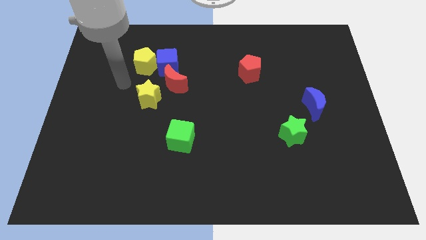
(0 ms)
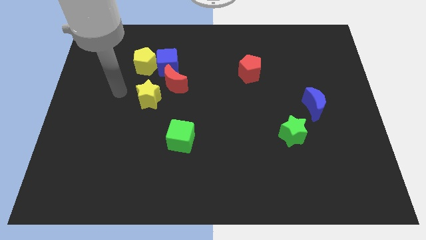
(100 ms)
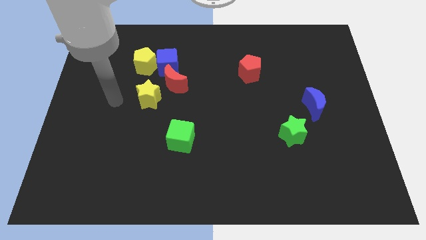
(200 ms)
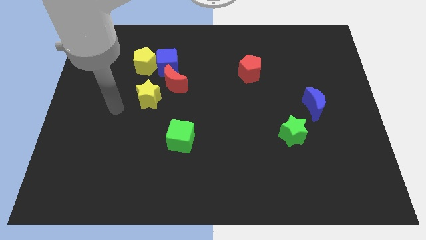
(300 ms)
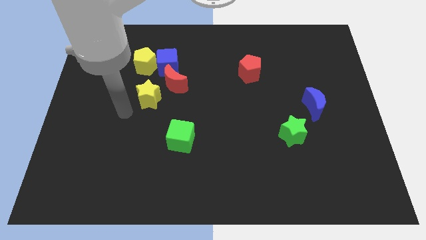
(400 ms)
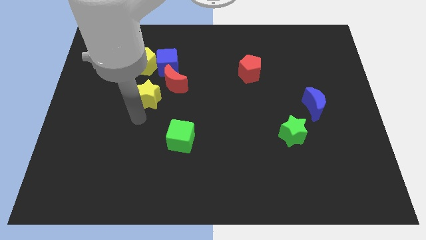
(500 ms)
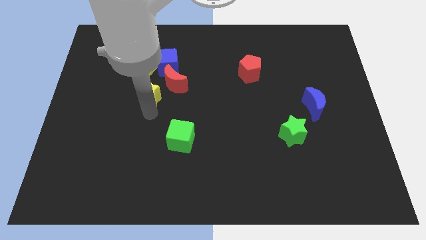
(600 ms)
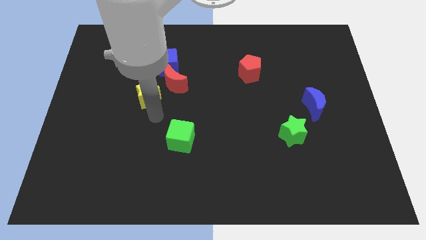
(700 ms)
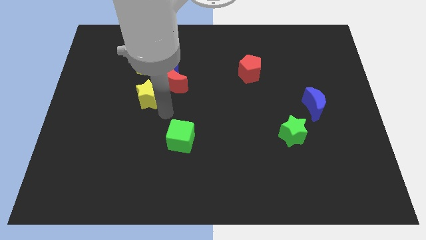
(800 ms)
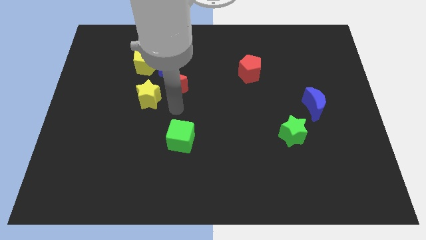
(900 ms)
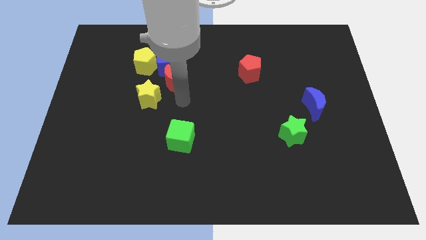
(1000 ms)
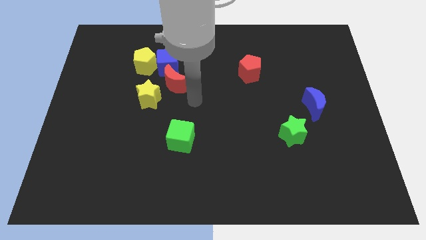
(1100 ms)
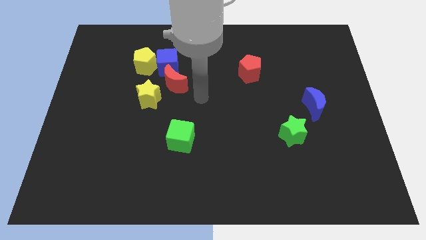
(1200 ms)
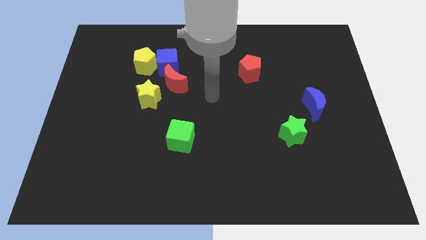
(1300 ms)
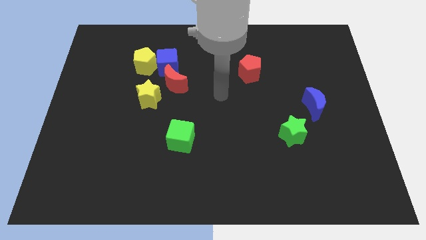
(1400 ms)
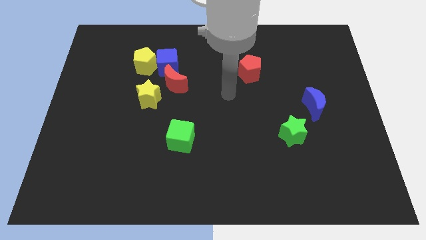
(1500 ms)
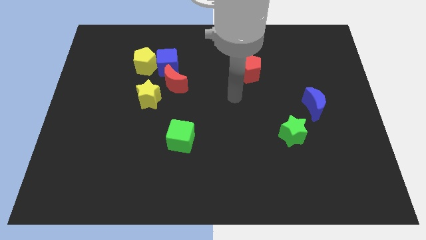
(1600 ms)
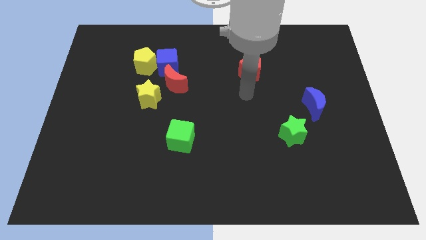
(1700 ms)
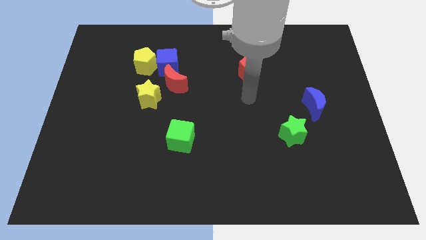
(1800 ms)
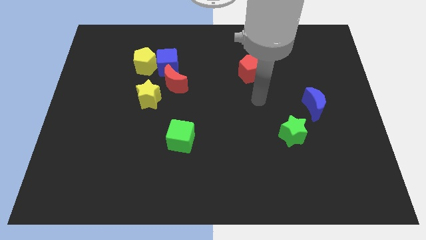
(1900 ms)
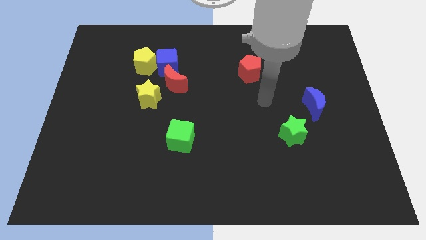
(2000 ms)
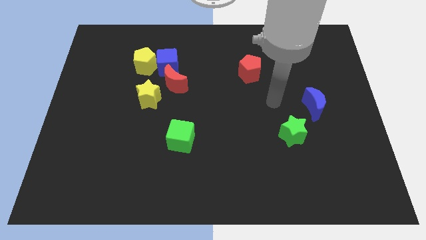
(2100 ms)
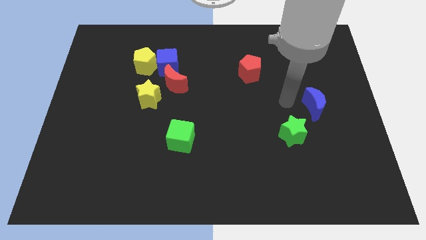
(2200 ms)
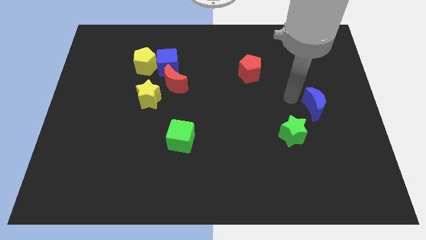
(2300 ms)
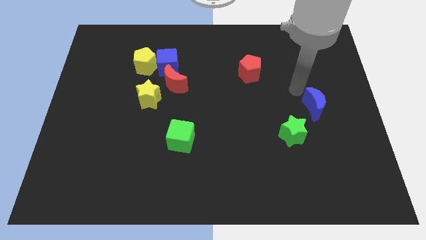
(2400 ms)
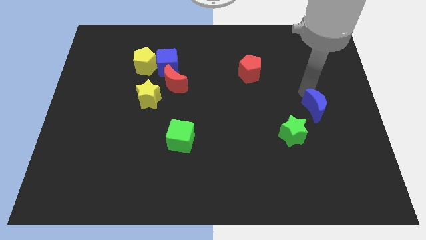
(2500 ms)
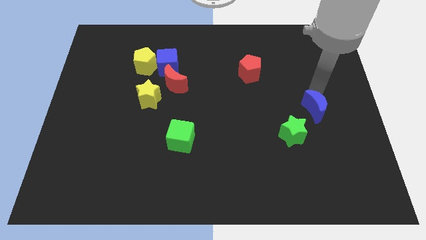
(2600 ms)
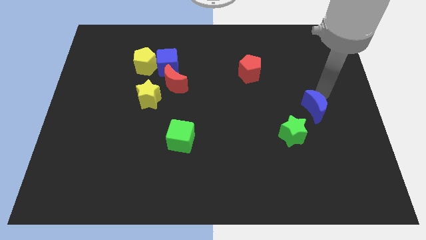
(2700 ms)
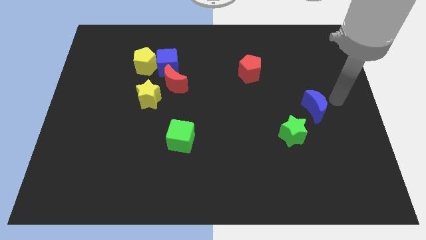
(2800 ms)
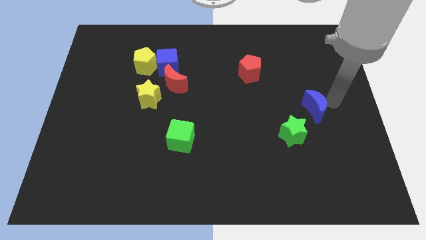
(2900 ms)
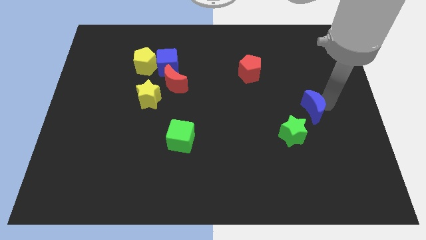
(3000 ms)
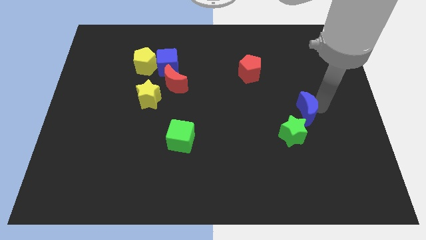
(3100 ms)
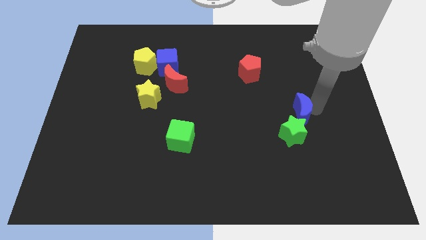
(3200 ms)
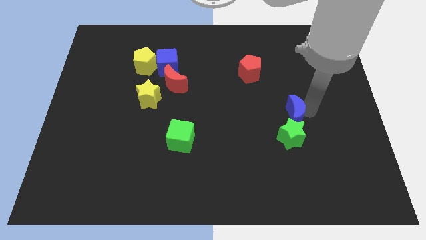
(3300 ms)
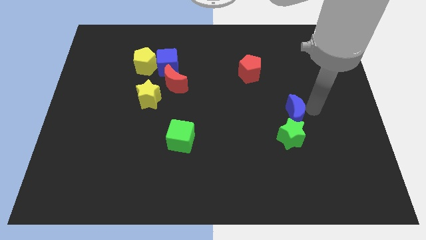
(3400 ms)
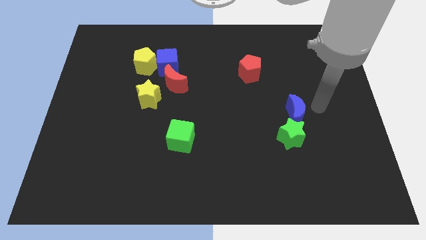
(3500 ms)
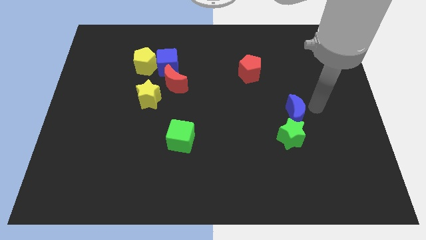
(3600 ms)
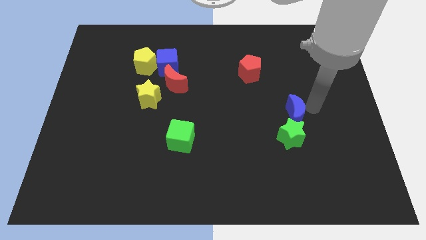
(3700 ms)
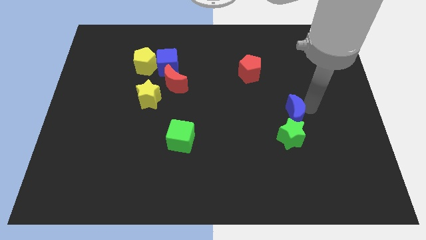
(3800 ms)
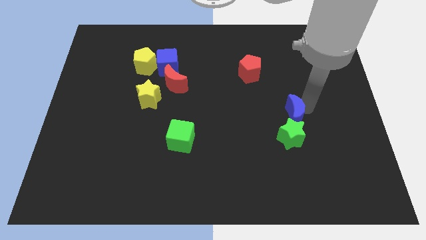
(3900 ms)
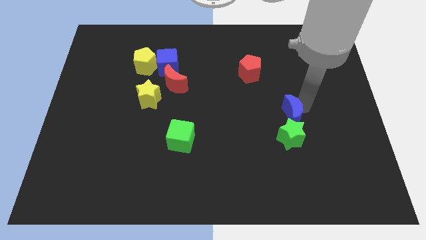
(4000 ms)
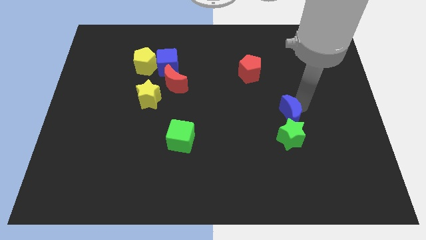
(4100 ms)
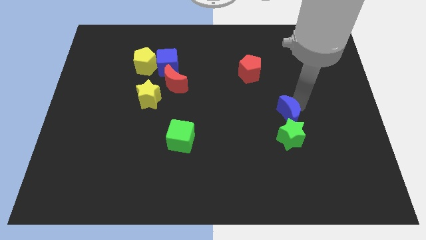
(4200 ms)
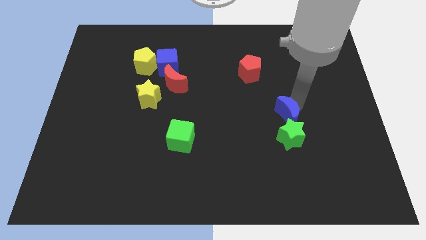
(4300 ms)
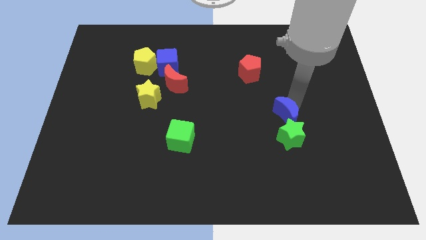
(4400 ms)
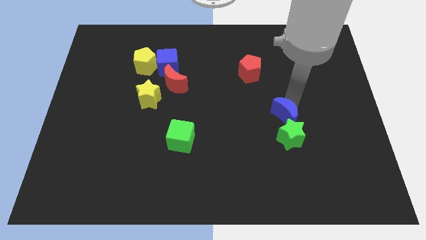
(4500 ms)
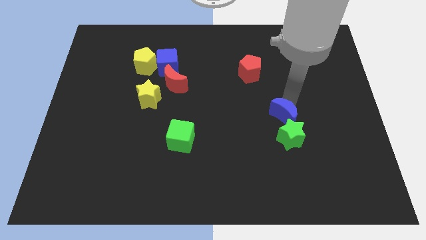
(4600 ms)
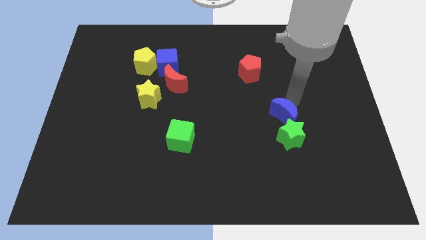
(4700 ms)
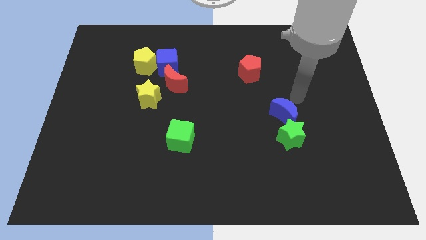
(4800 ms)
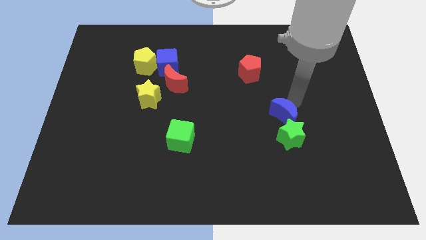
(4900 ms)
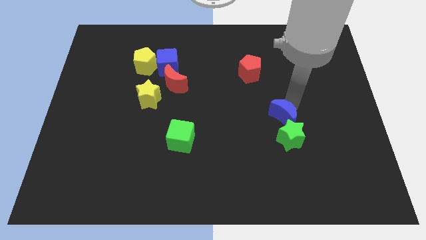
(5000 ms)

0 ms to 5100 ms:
slightly slide the blue moon diagonally down and to the left

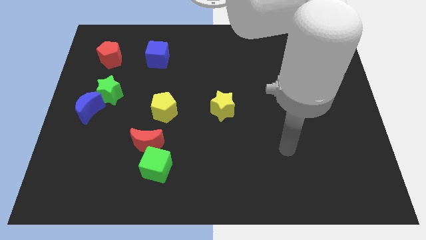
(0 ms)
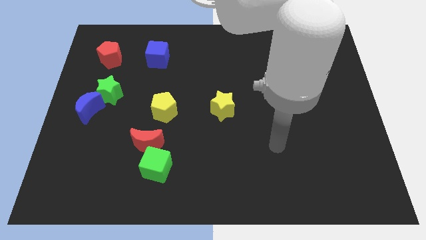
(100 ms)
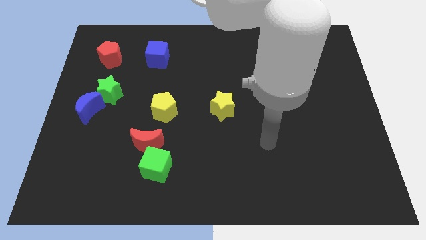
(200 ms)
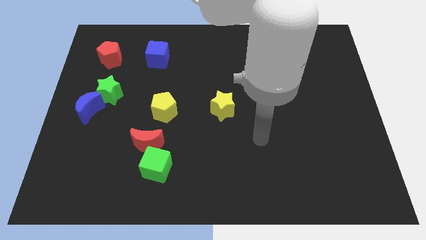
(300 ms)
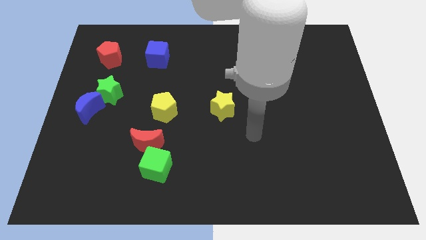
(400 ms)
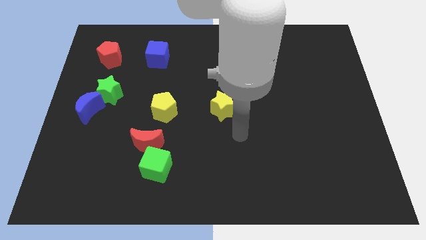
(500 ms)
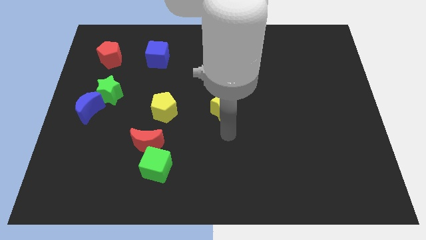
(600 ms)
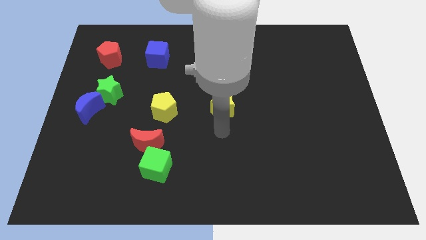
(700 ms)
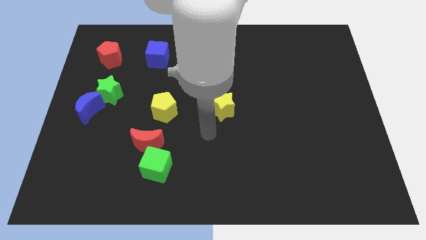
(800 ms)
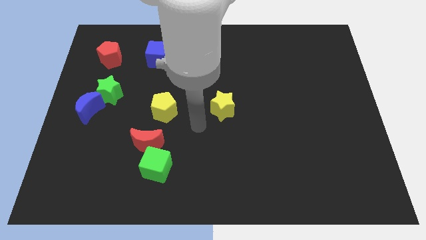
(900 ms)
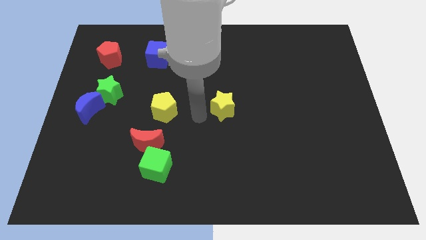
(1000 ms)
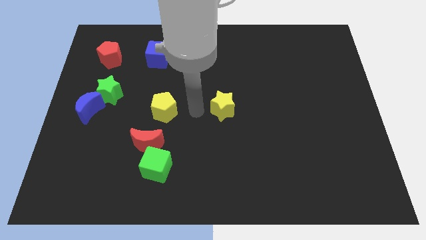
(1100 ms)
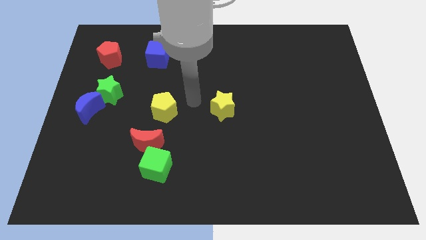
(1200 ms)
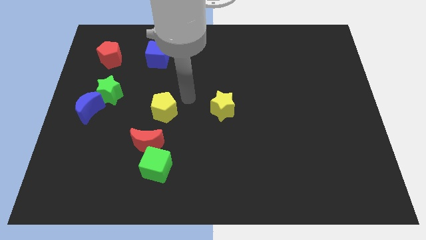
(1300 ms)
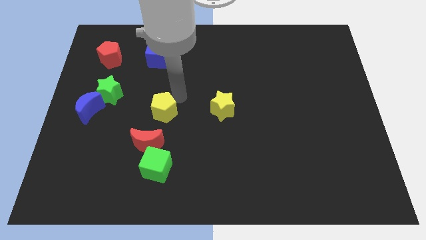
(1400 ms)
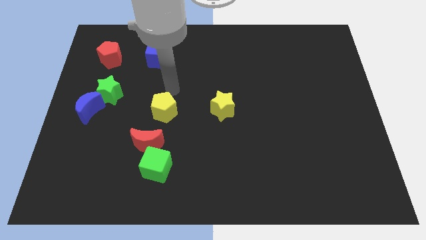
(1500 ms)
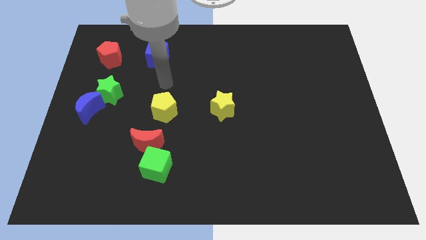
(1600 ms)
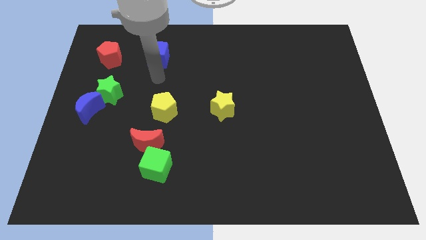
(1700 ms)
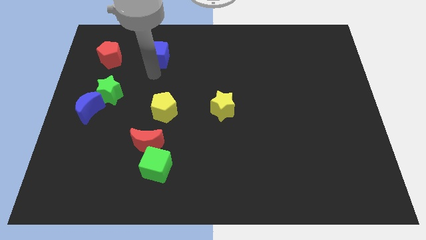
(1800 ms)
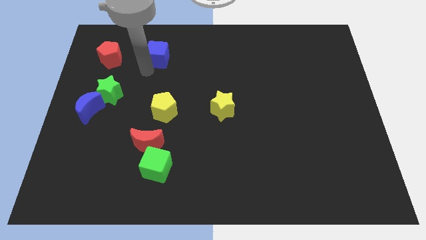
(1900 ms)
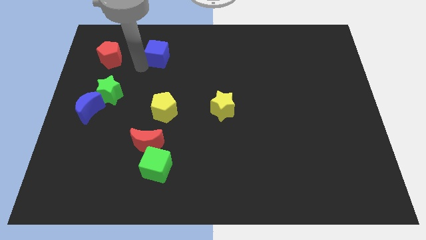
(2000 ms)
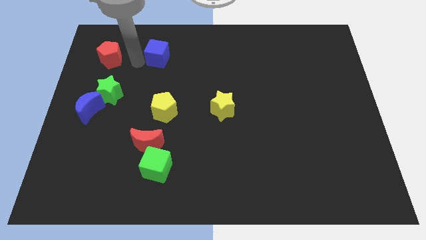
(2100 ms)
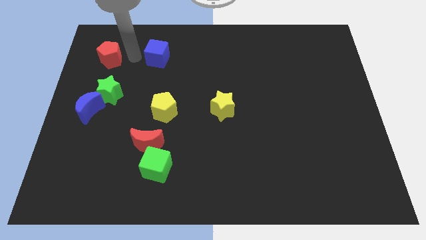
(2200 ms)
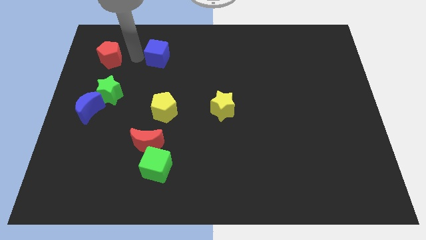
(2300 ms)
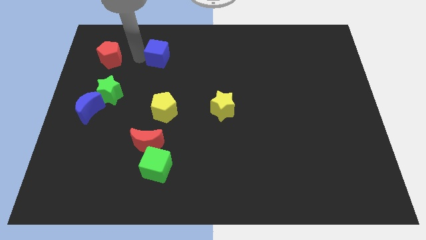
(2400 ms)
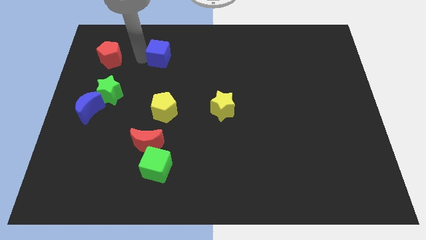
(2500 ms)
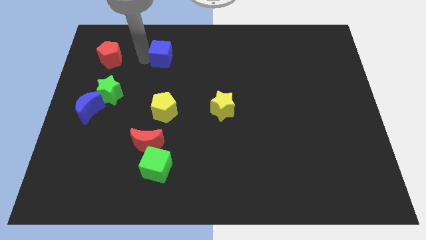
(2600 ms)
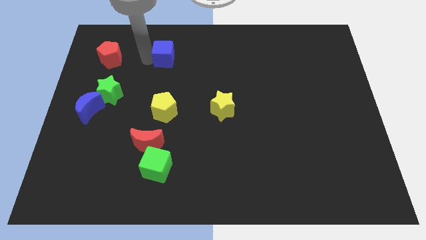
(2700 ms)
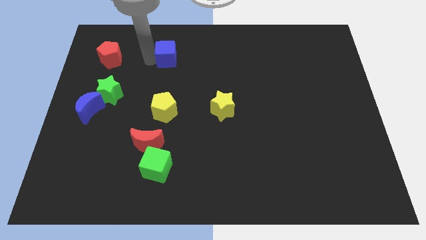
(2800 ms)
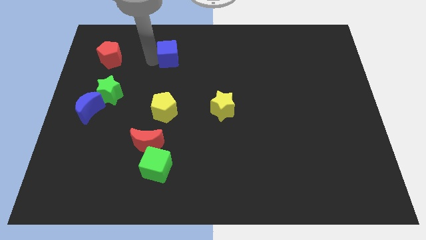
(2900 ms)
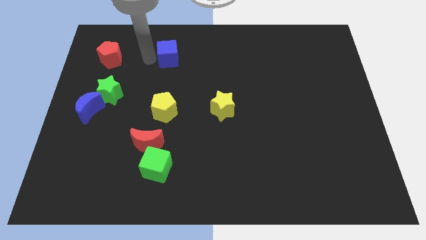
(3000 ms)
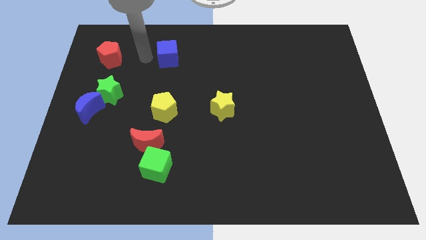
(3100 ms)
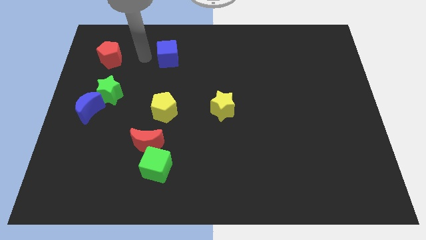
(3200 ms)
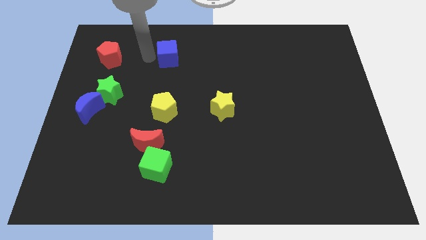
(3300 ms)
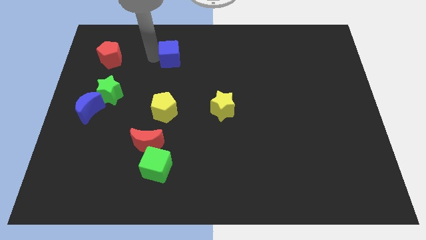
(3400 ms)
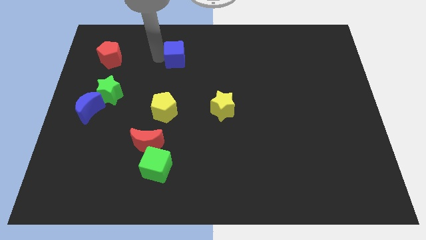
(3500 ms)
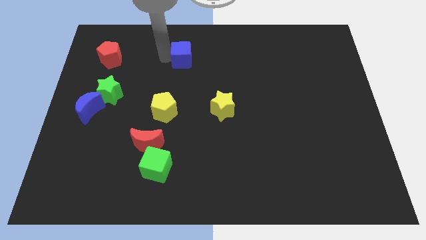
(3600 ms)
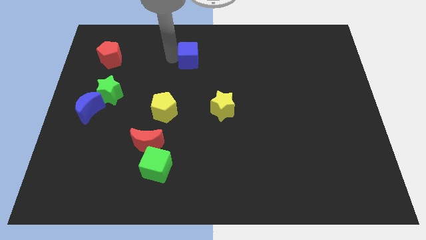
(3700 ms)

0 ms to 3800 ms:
slightly push the blue cube right
